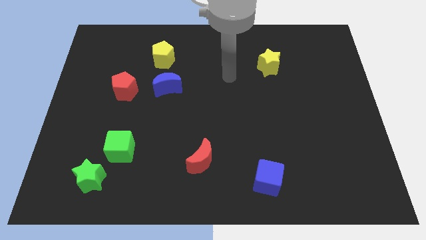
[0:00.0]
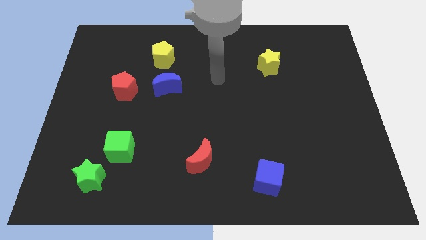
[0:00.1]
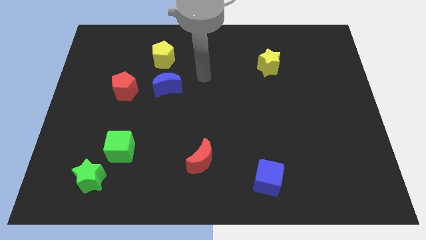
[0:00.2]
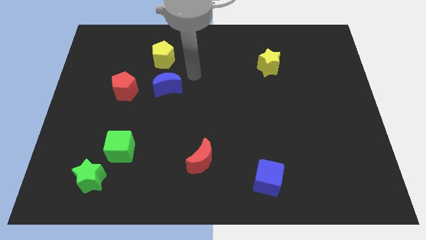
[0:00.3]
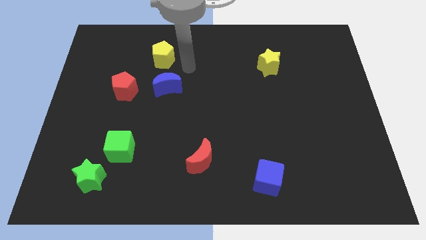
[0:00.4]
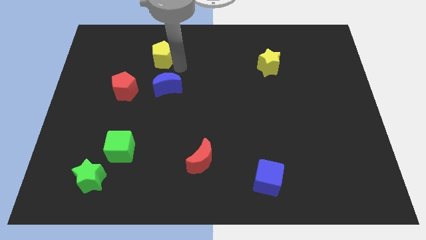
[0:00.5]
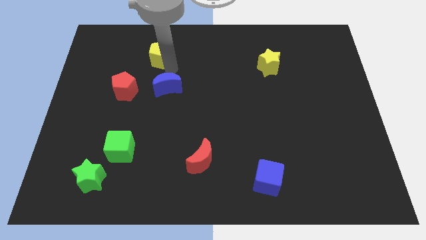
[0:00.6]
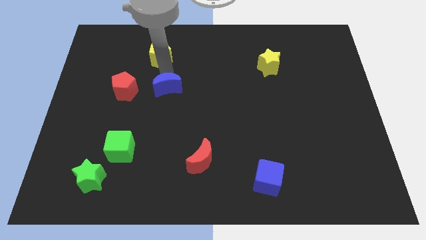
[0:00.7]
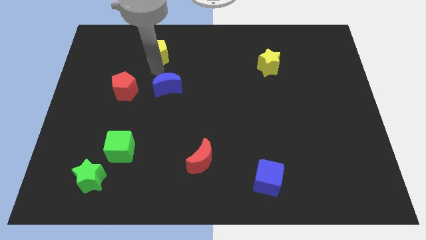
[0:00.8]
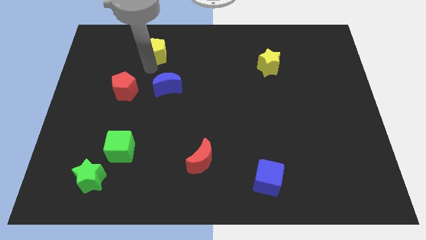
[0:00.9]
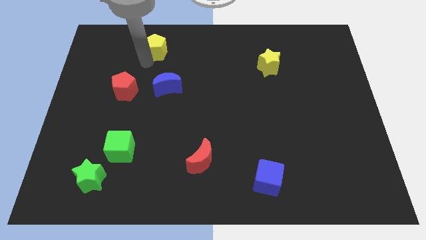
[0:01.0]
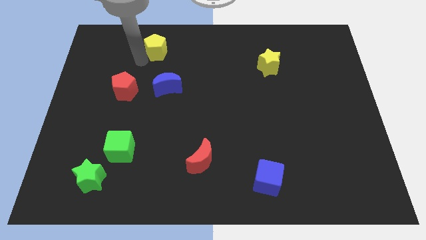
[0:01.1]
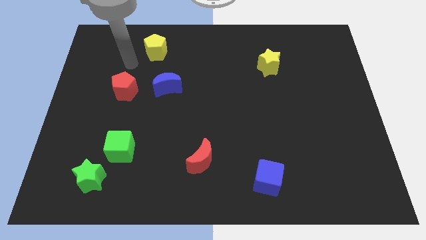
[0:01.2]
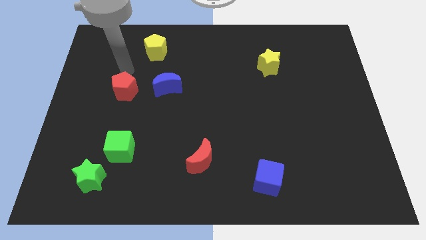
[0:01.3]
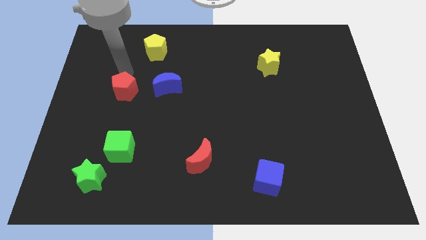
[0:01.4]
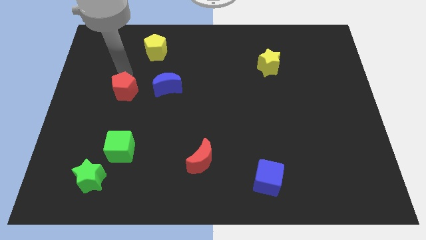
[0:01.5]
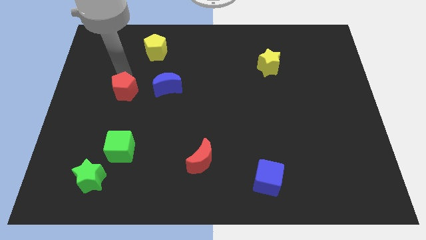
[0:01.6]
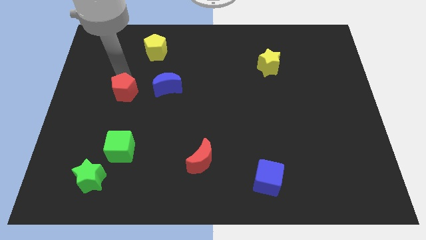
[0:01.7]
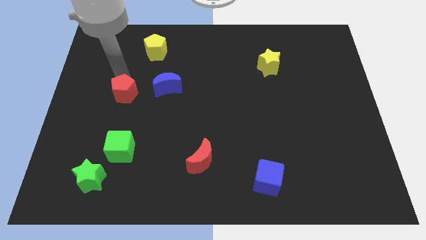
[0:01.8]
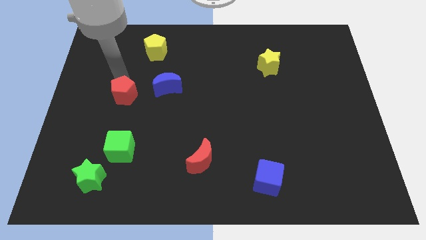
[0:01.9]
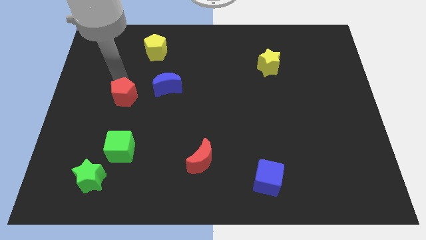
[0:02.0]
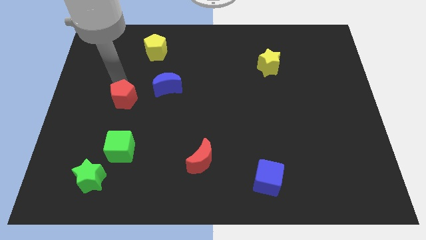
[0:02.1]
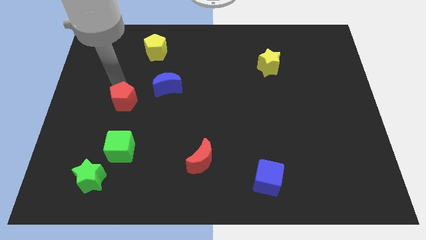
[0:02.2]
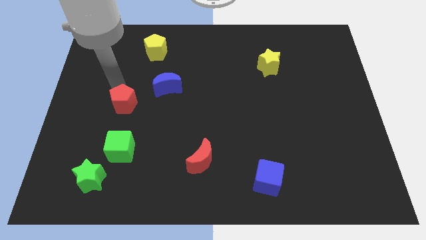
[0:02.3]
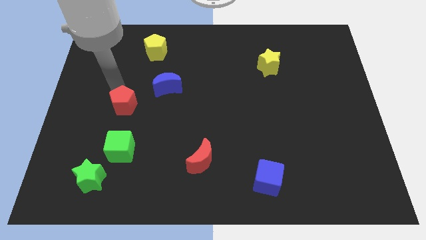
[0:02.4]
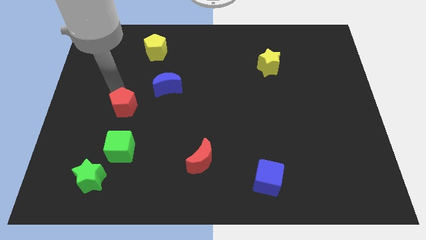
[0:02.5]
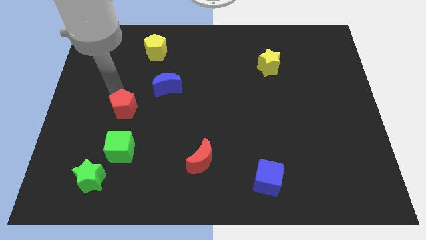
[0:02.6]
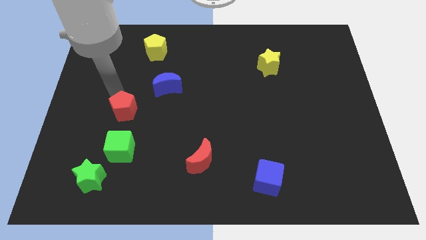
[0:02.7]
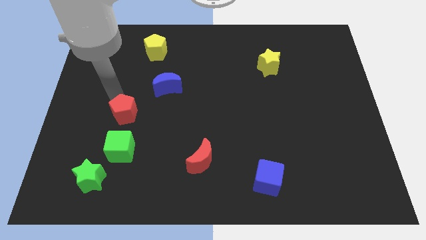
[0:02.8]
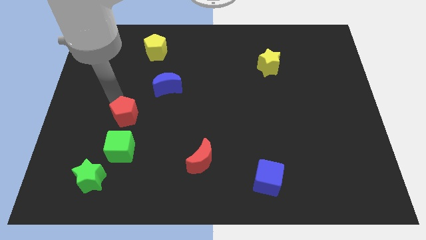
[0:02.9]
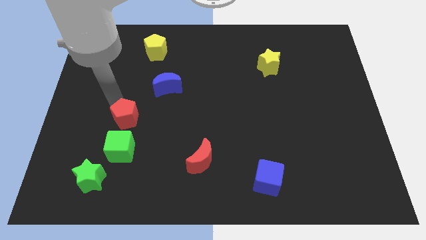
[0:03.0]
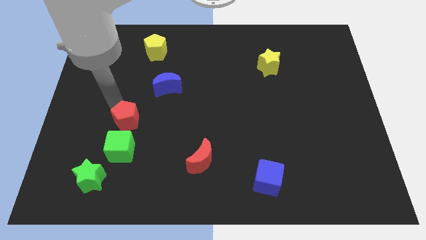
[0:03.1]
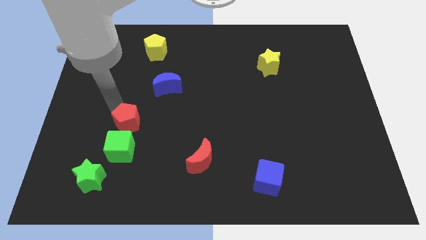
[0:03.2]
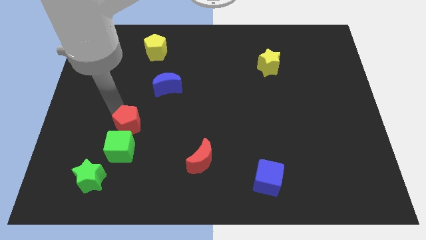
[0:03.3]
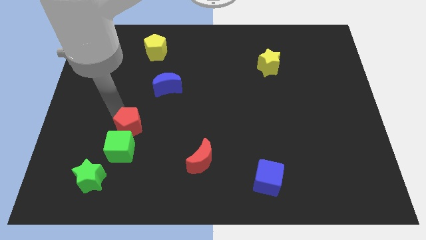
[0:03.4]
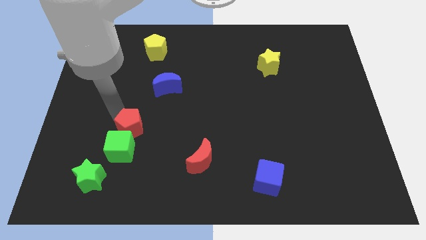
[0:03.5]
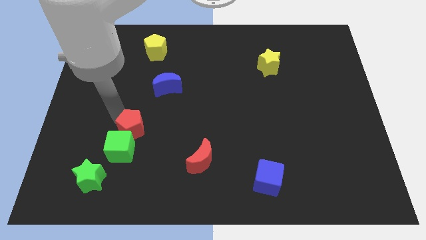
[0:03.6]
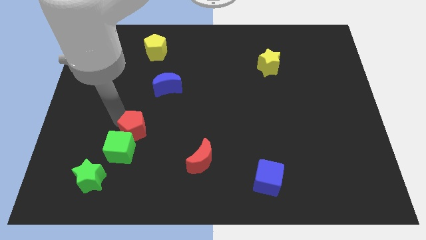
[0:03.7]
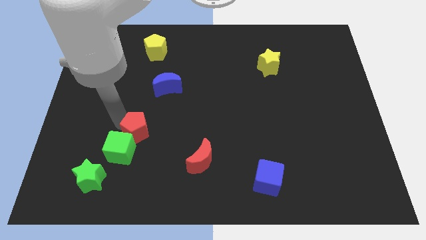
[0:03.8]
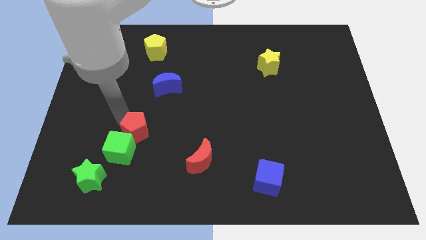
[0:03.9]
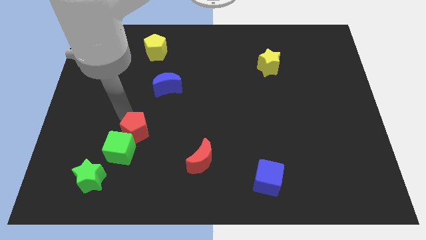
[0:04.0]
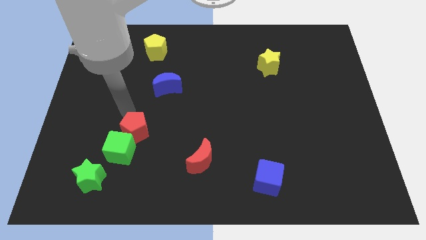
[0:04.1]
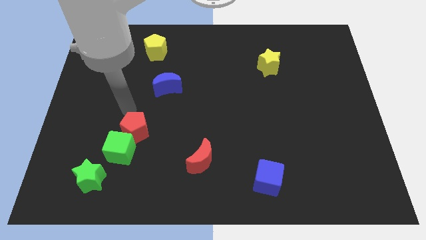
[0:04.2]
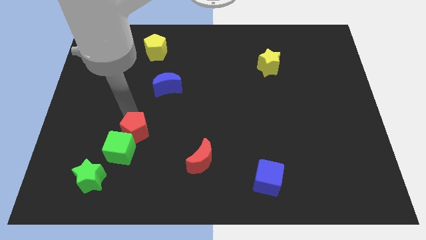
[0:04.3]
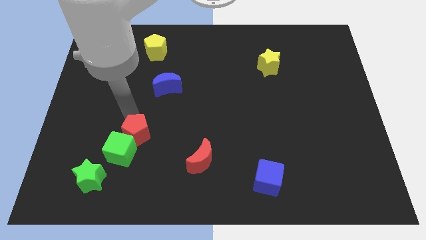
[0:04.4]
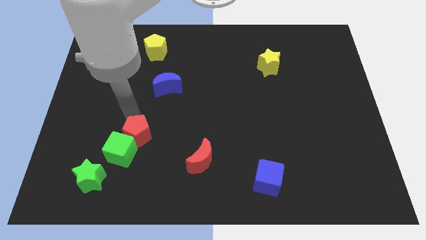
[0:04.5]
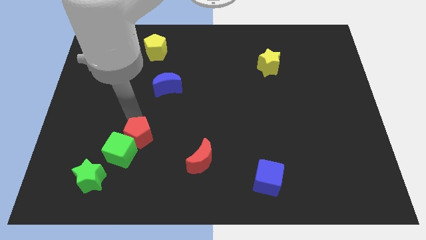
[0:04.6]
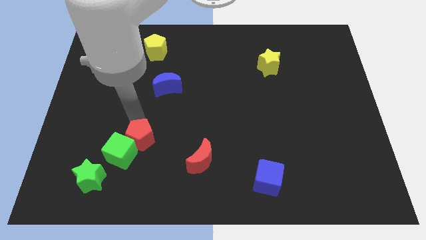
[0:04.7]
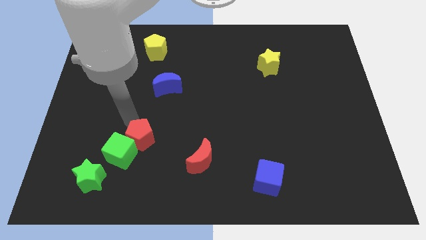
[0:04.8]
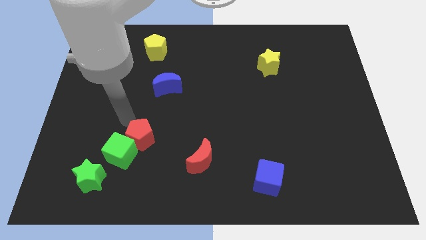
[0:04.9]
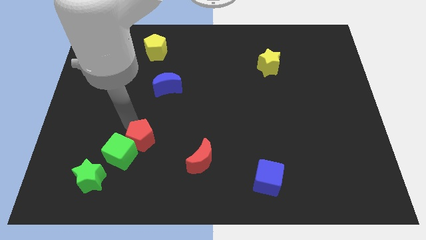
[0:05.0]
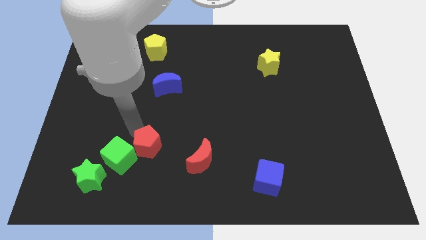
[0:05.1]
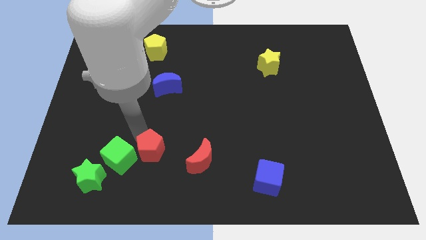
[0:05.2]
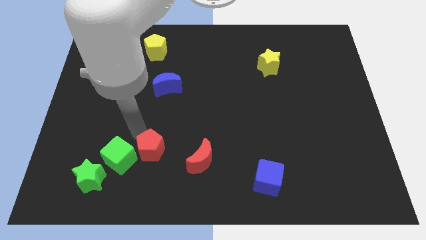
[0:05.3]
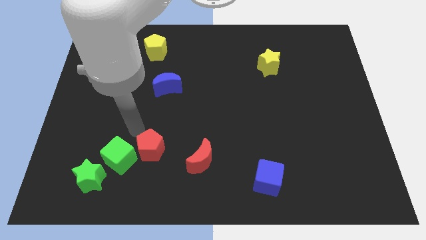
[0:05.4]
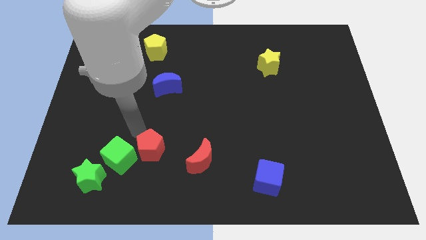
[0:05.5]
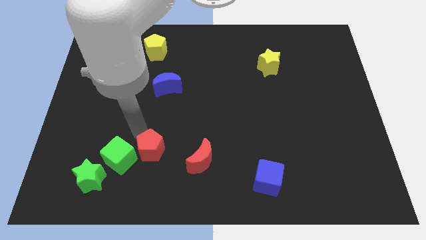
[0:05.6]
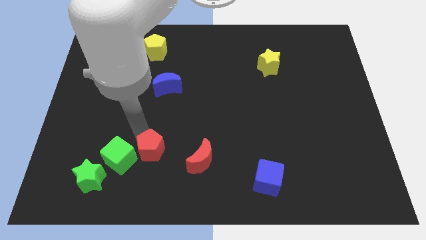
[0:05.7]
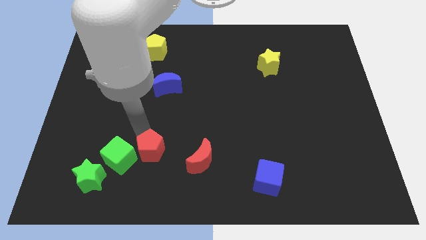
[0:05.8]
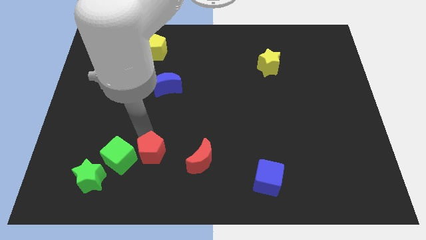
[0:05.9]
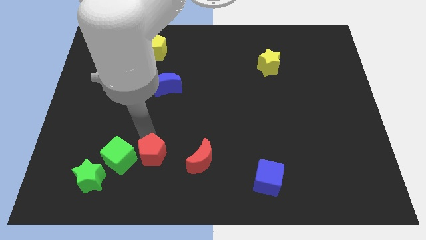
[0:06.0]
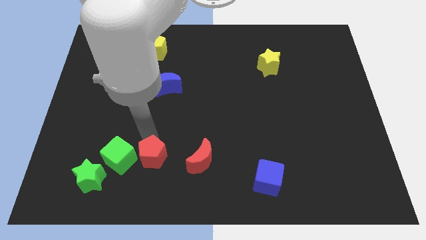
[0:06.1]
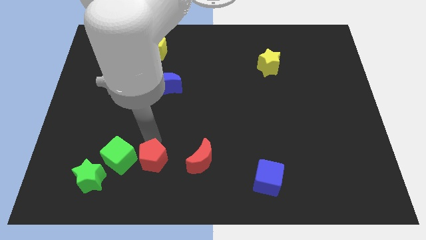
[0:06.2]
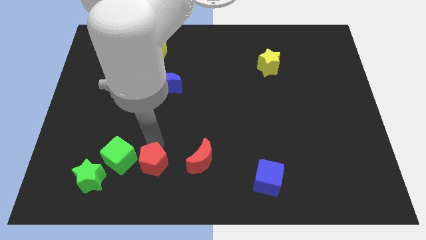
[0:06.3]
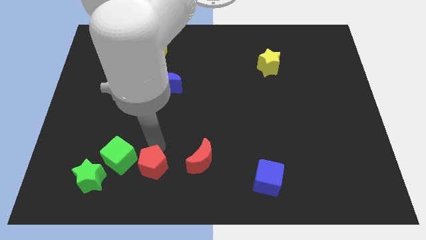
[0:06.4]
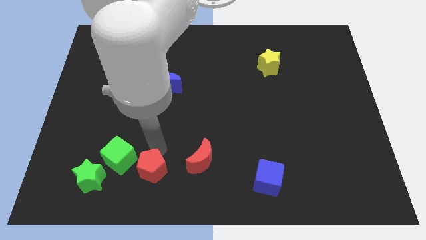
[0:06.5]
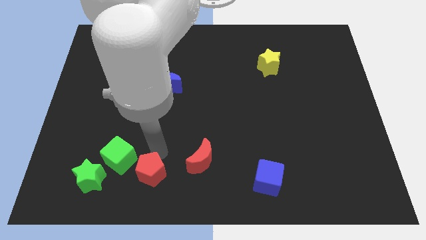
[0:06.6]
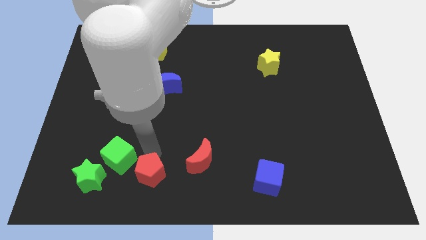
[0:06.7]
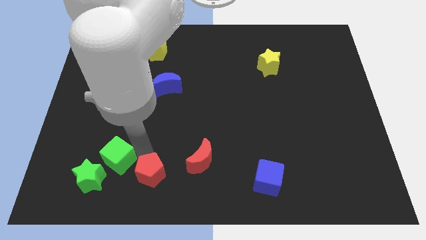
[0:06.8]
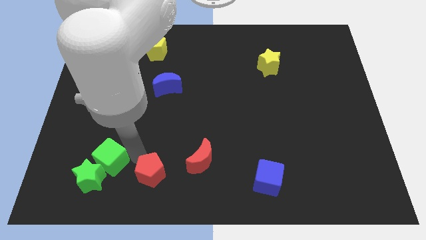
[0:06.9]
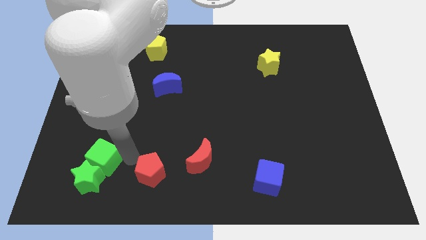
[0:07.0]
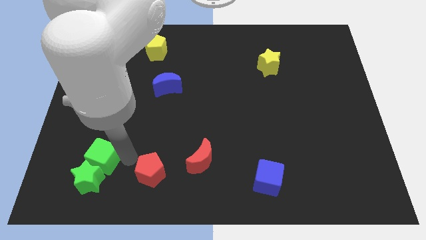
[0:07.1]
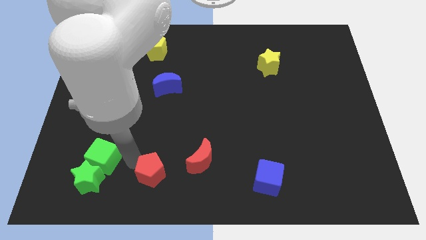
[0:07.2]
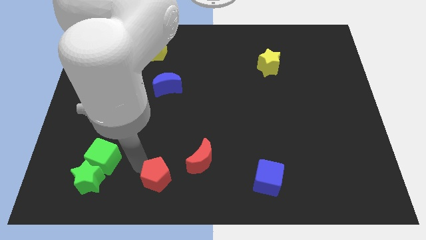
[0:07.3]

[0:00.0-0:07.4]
push the red pentagon to the bottom side
